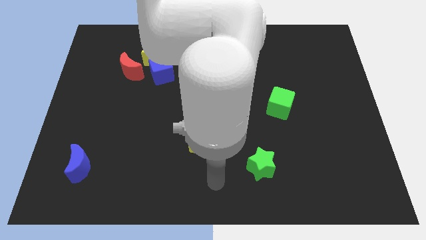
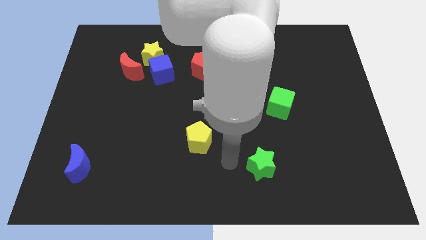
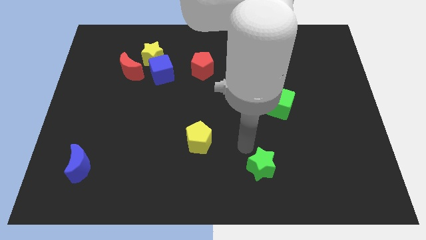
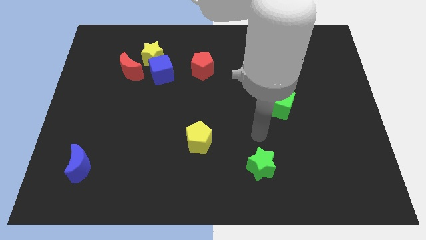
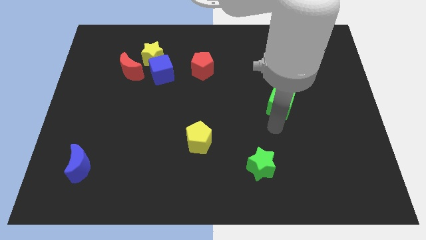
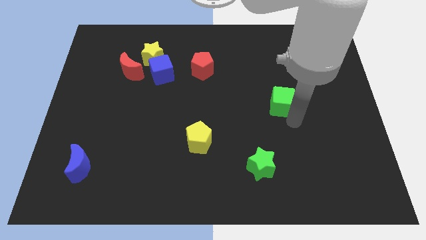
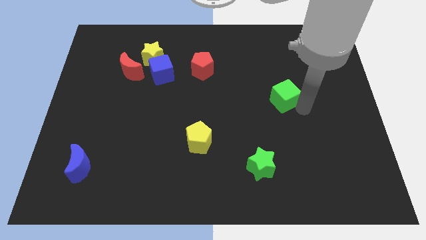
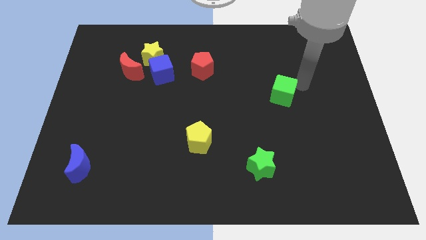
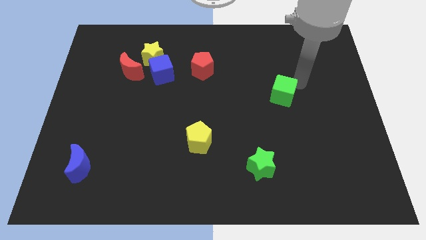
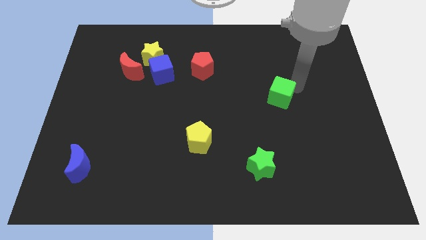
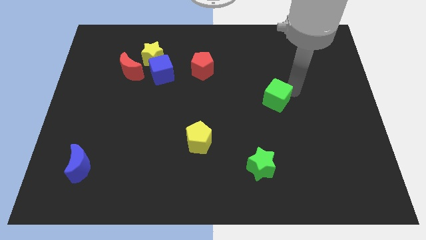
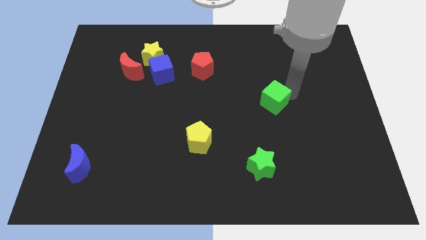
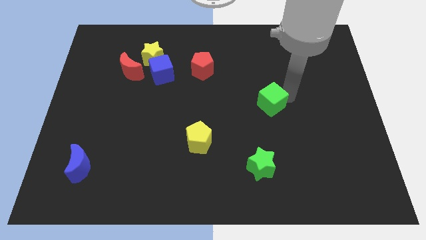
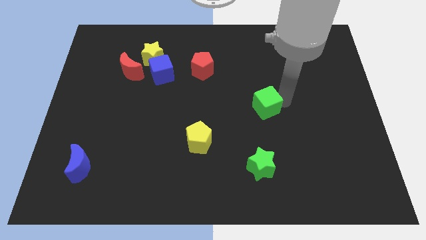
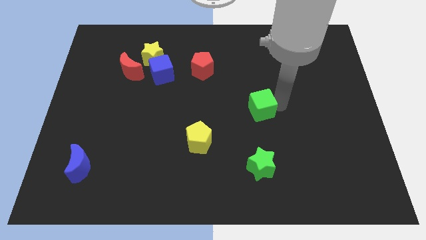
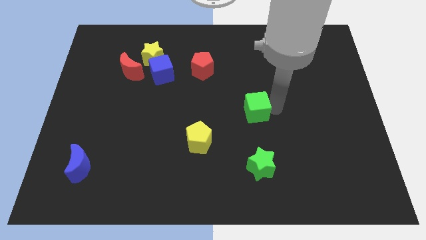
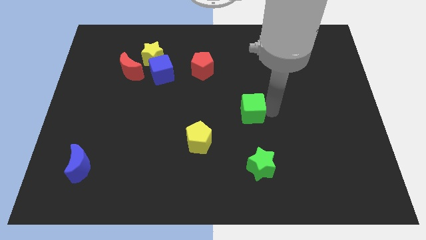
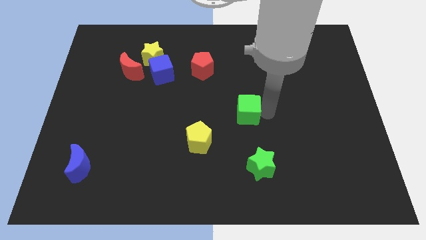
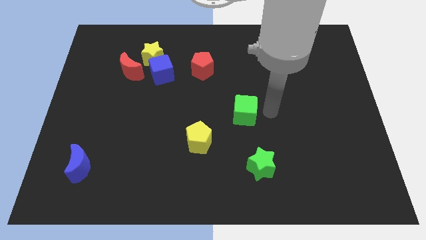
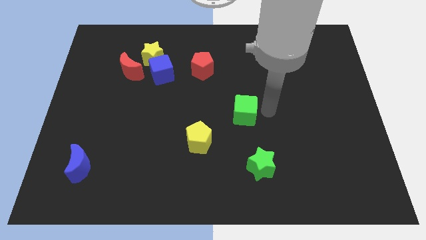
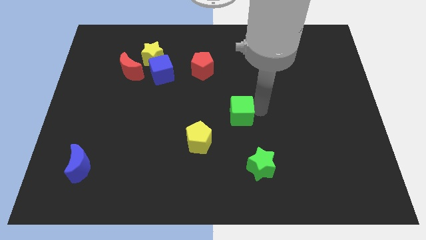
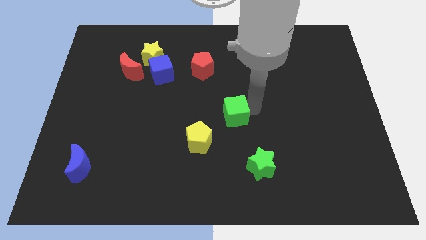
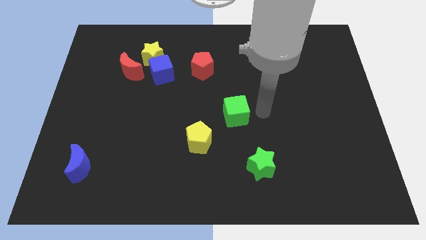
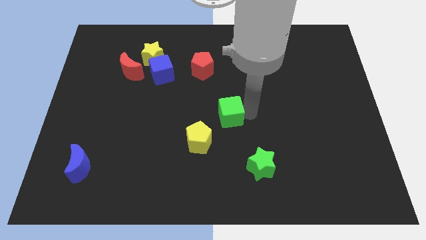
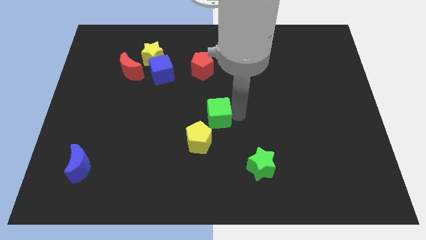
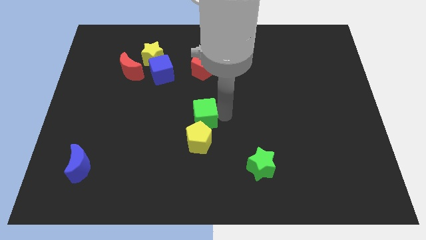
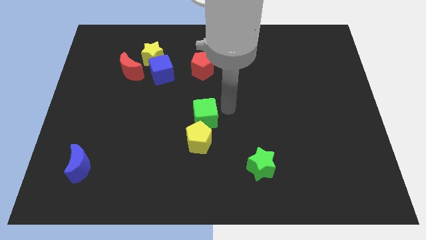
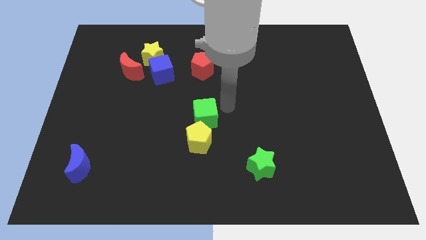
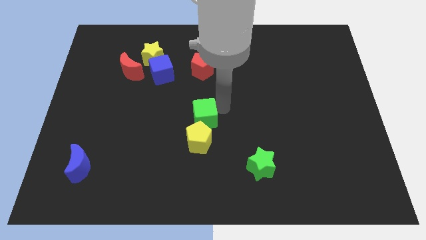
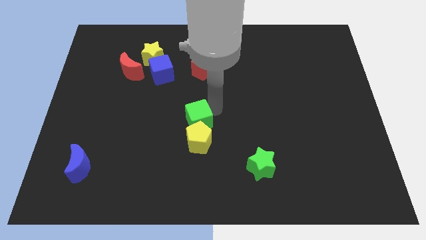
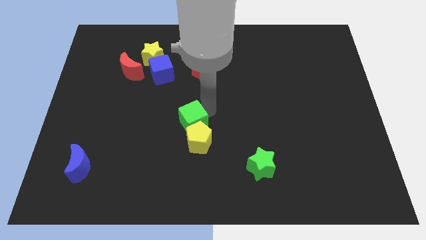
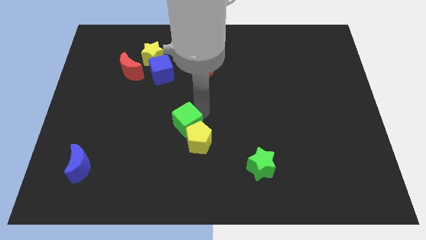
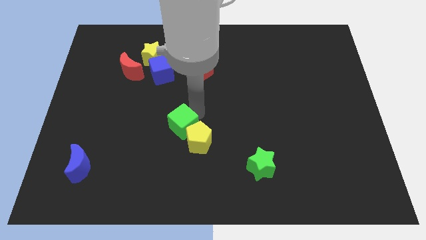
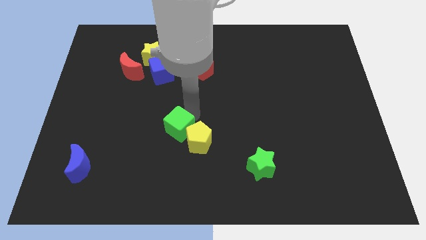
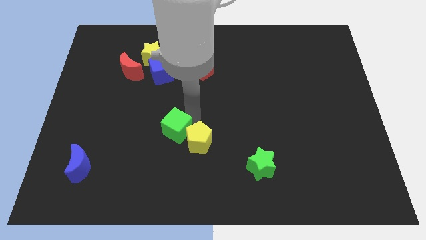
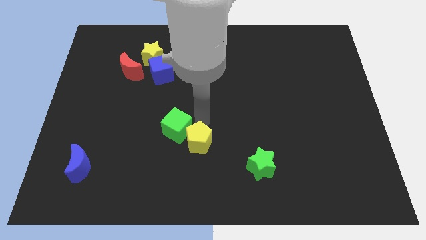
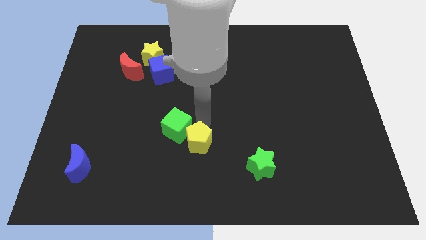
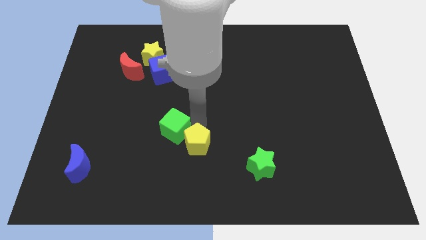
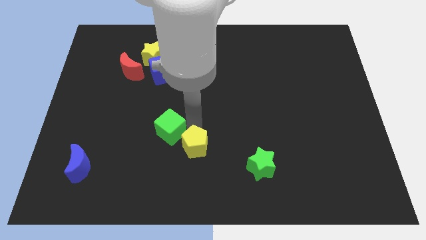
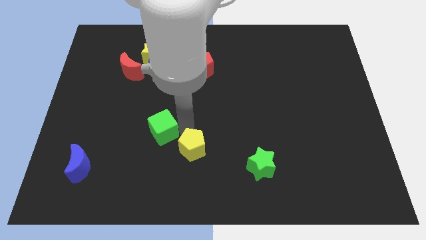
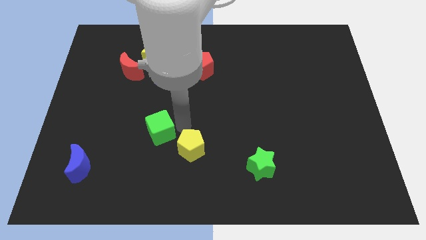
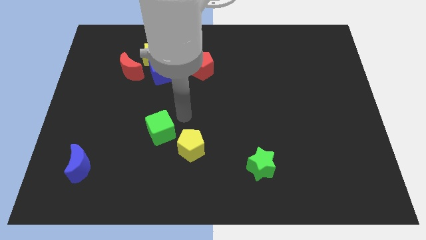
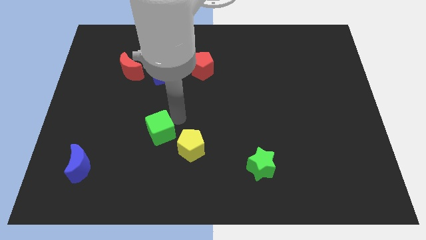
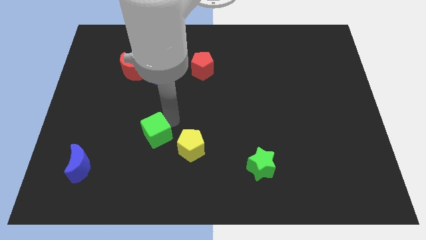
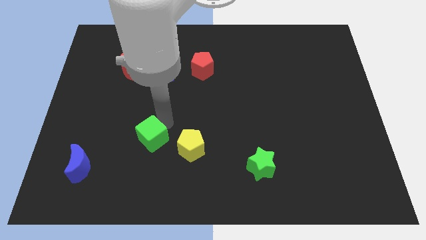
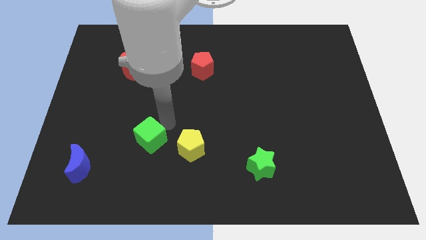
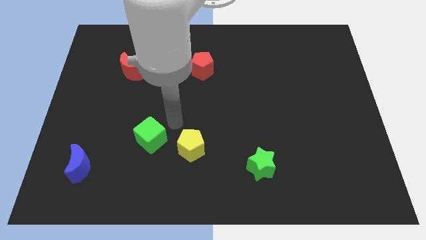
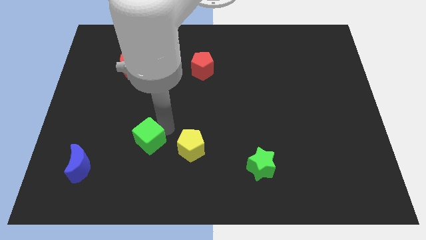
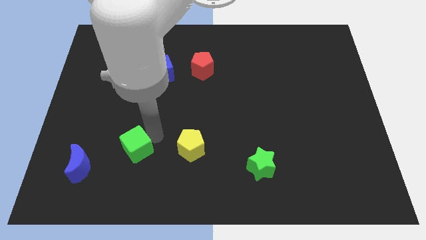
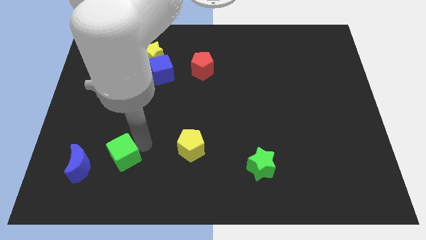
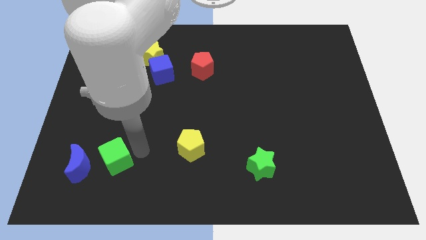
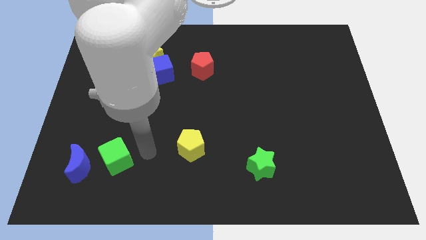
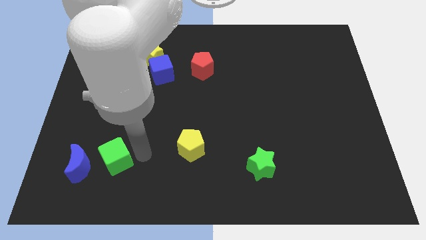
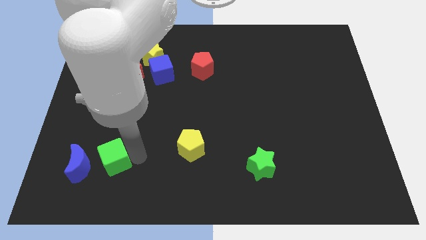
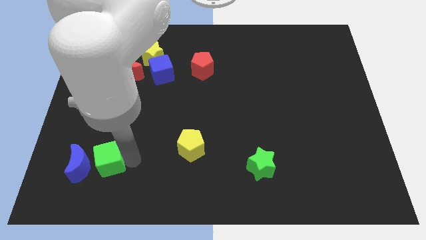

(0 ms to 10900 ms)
put the green cube towards the blue moon

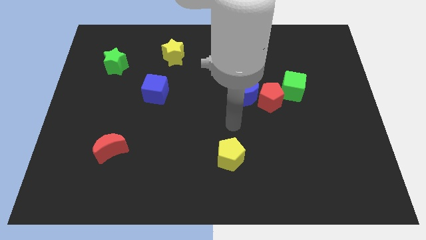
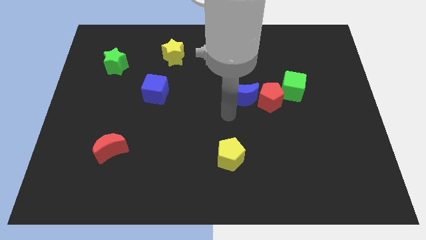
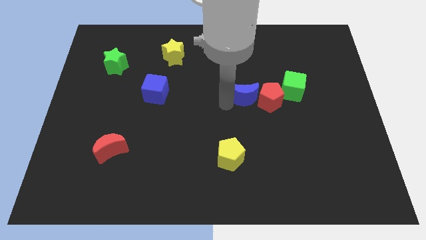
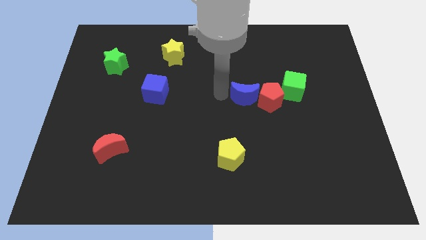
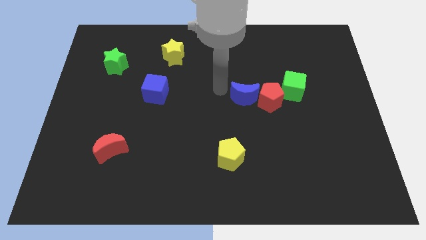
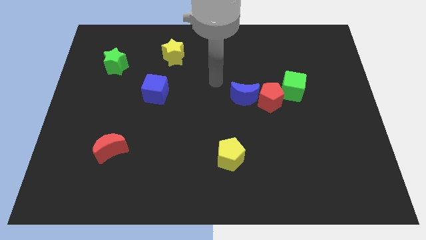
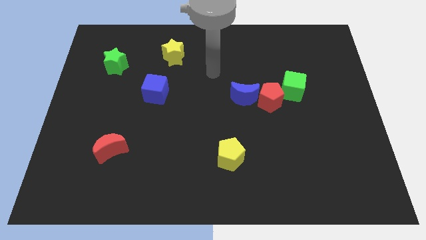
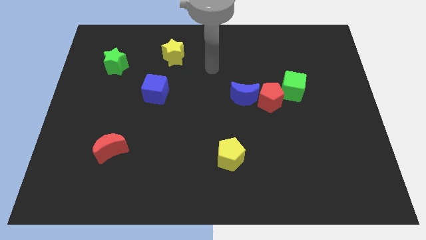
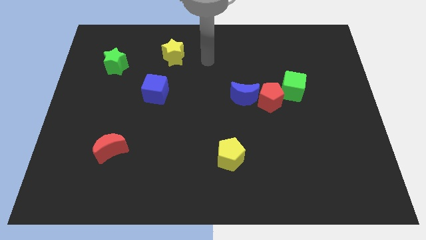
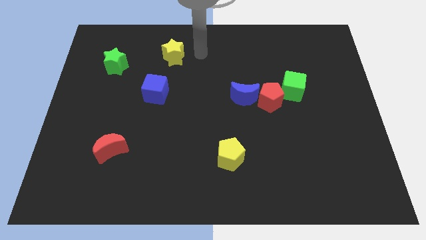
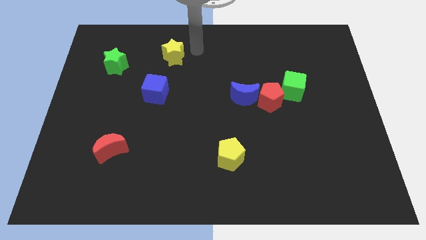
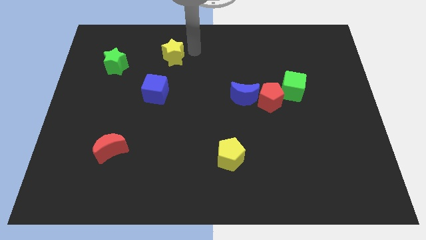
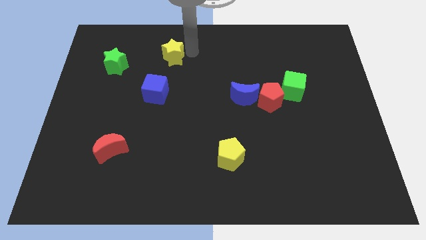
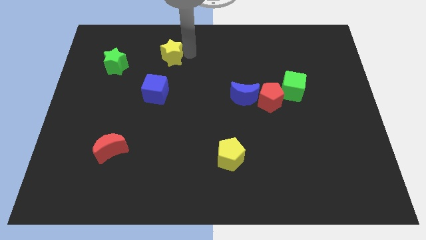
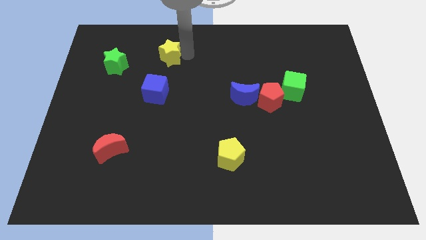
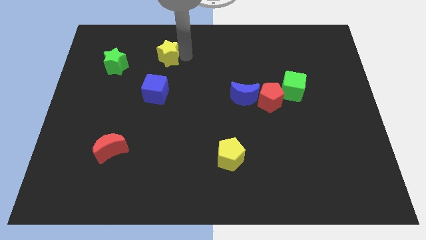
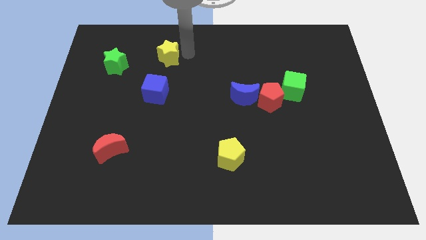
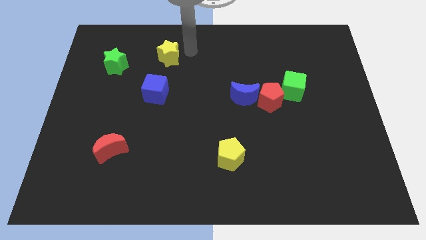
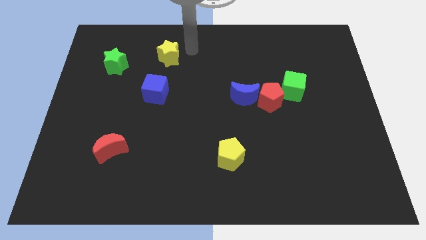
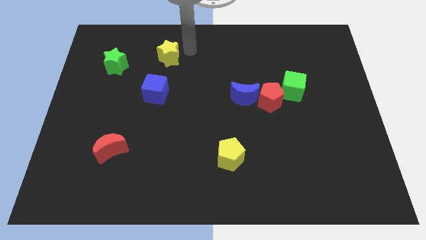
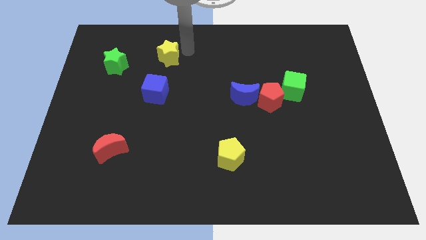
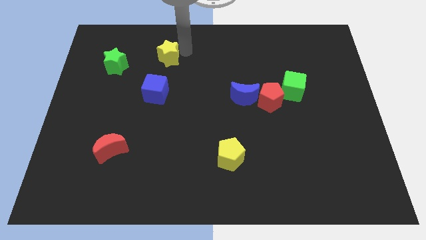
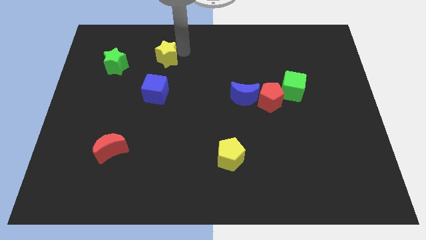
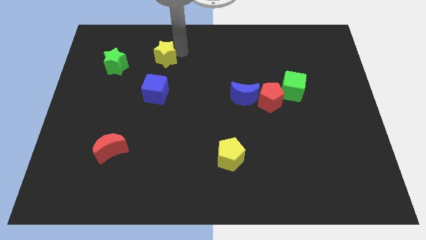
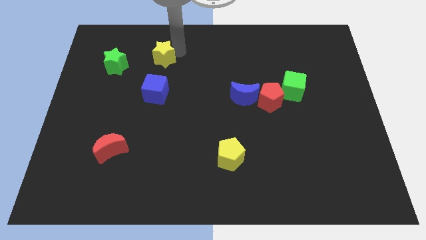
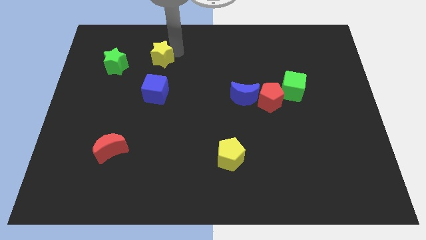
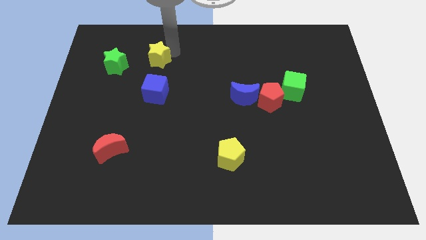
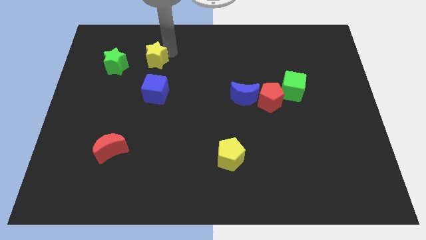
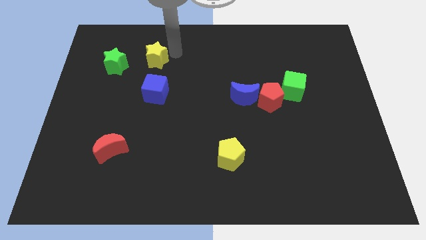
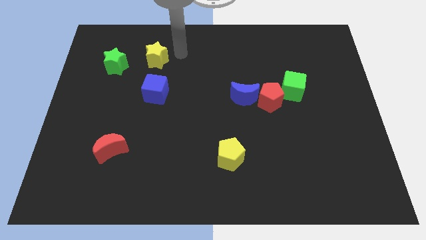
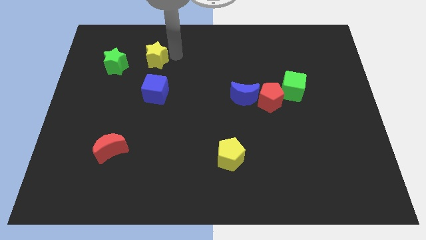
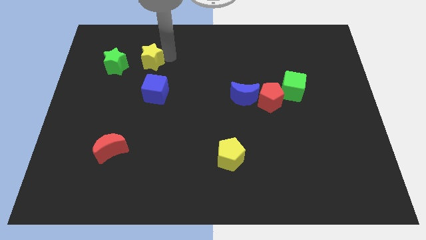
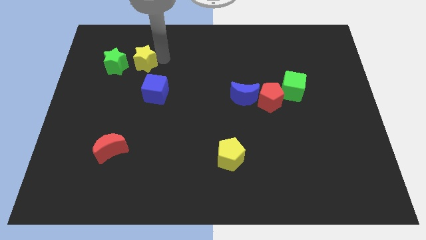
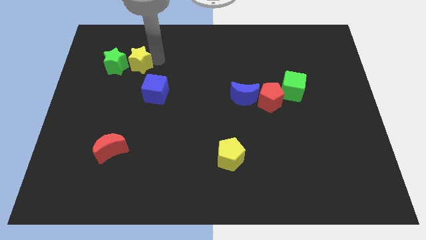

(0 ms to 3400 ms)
move the yellow star next to the green star
